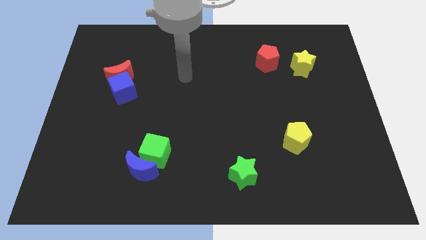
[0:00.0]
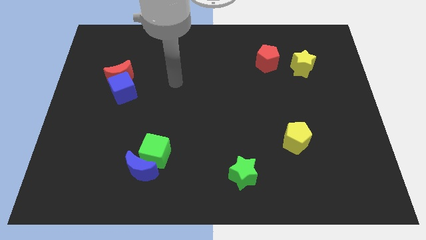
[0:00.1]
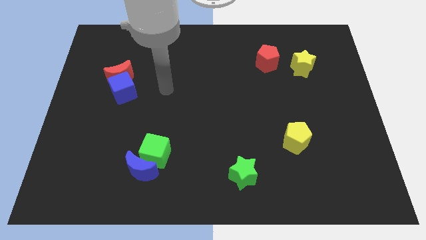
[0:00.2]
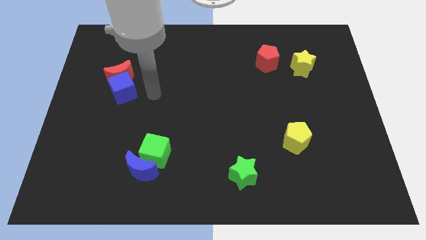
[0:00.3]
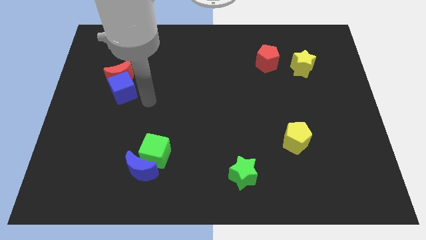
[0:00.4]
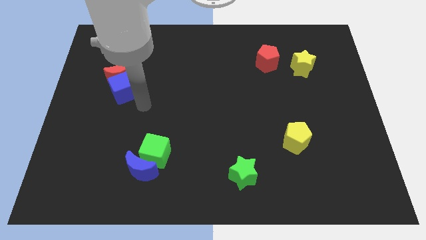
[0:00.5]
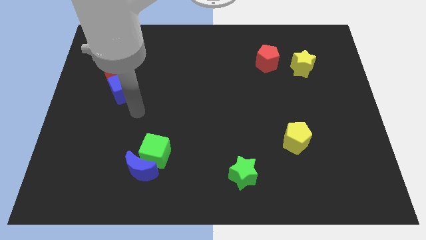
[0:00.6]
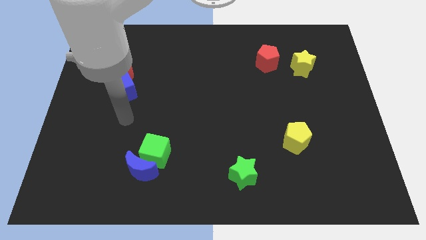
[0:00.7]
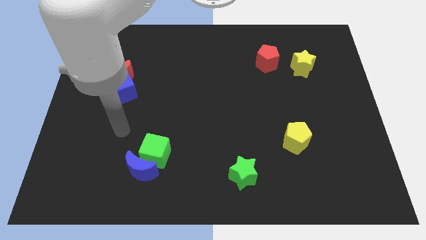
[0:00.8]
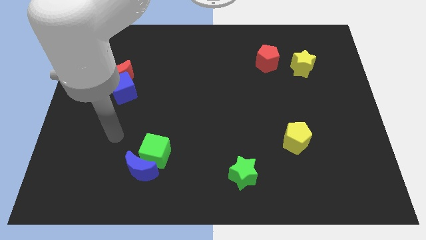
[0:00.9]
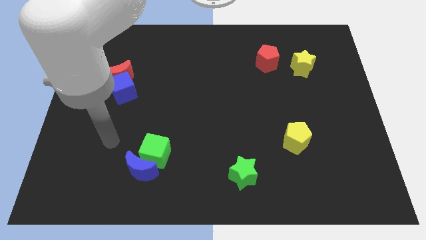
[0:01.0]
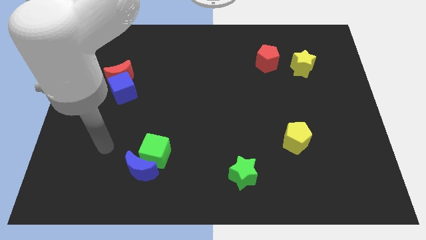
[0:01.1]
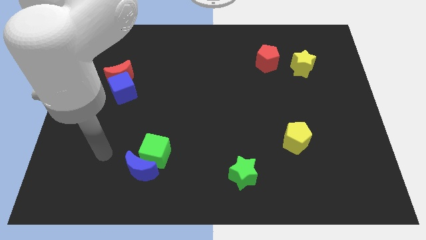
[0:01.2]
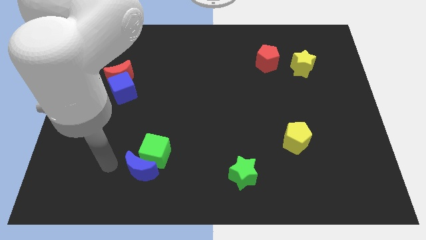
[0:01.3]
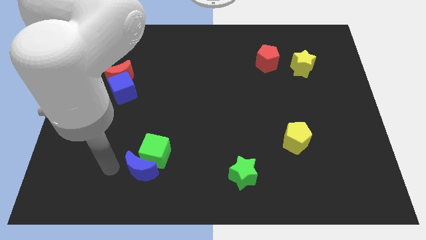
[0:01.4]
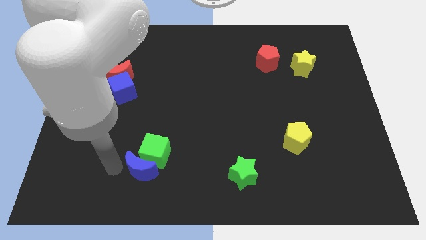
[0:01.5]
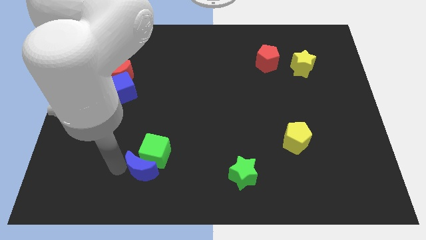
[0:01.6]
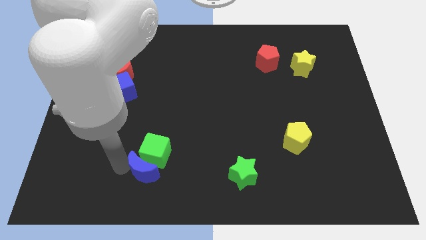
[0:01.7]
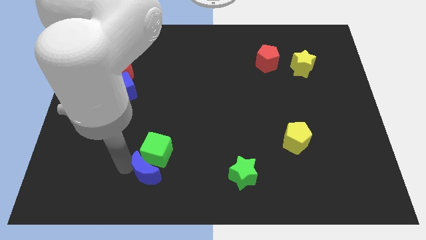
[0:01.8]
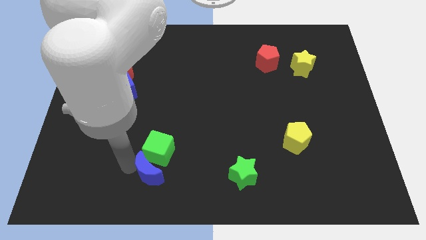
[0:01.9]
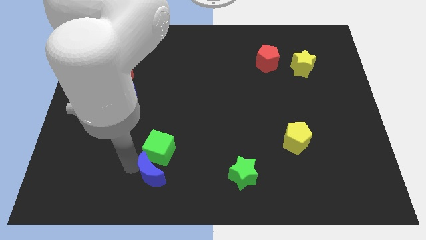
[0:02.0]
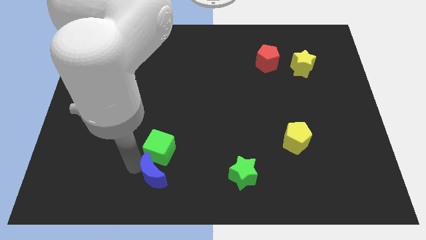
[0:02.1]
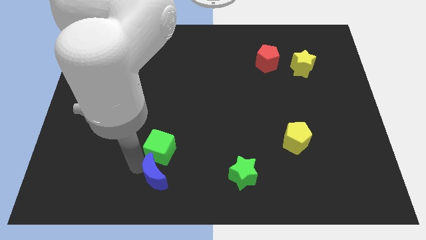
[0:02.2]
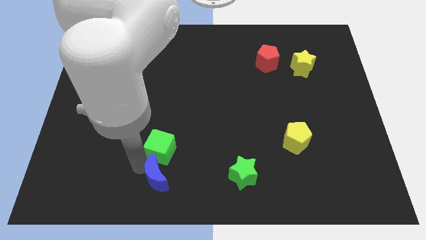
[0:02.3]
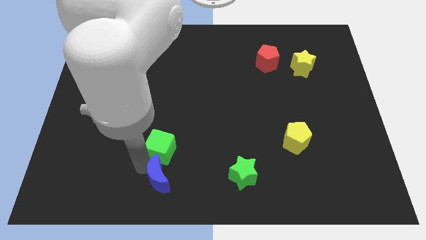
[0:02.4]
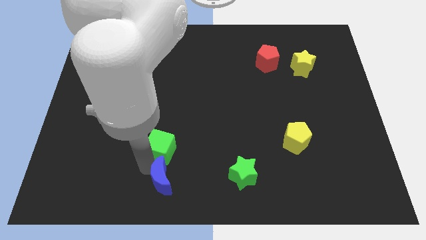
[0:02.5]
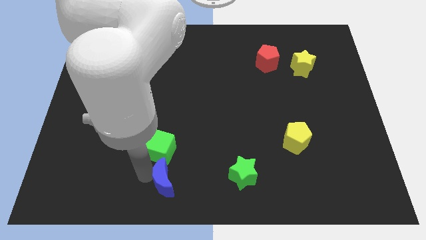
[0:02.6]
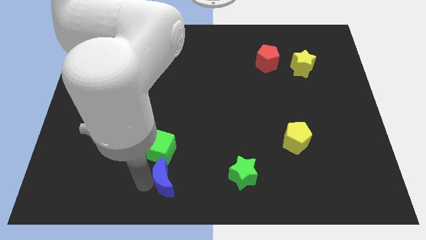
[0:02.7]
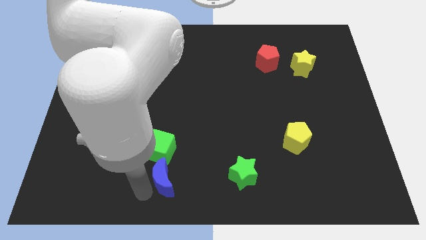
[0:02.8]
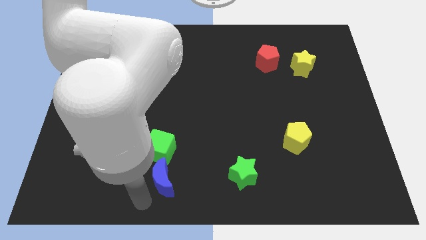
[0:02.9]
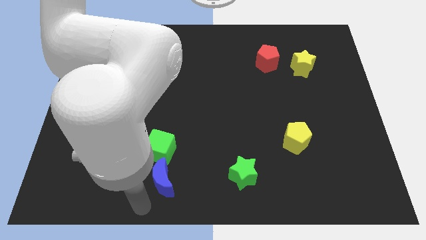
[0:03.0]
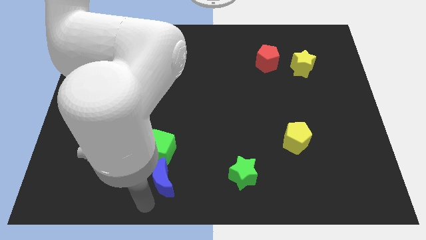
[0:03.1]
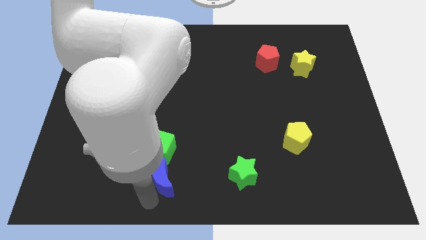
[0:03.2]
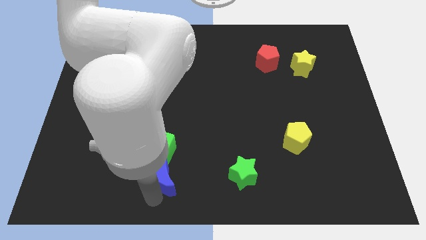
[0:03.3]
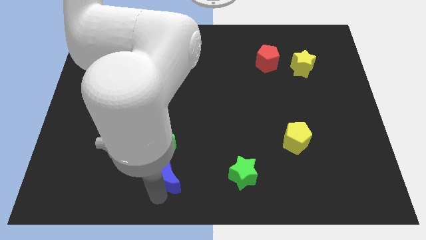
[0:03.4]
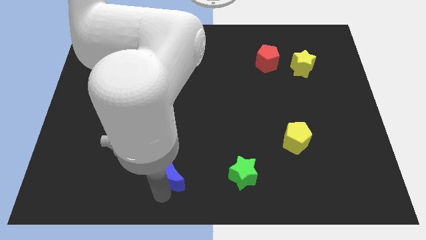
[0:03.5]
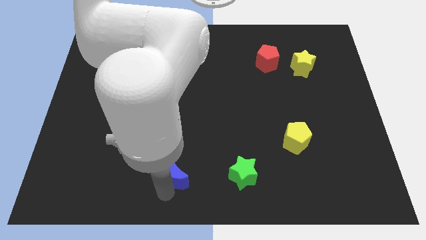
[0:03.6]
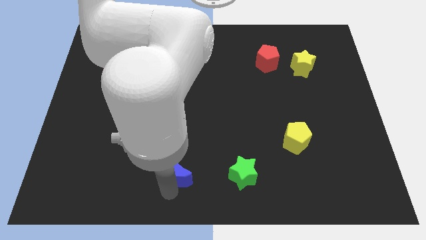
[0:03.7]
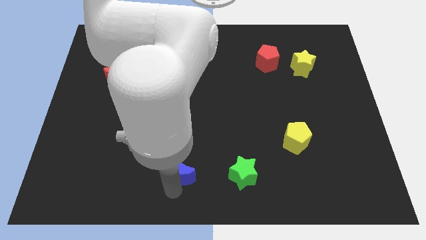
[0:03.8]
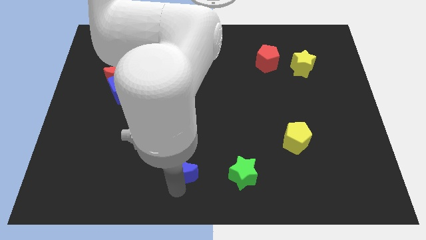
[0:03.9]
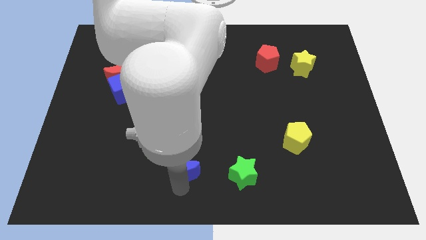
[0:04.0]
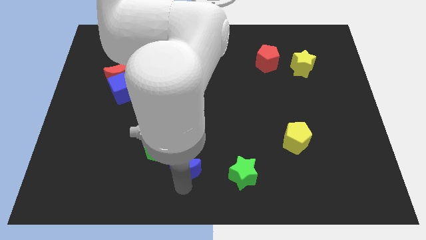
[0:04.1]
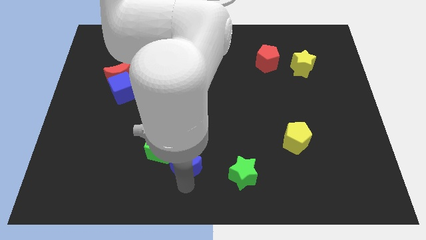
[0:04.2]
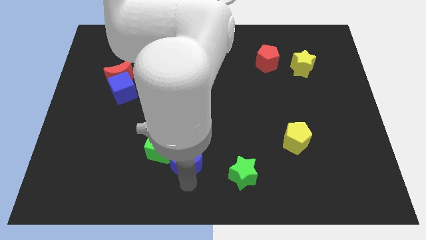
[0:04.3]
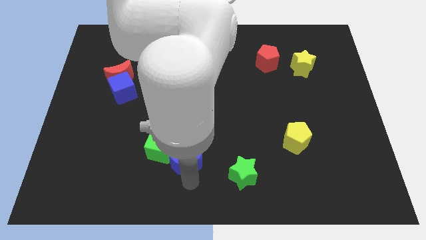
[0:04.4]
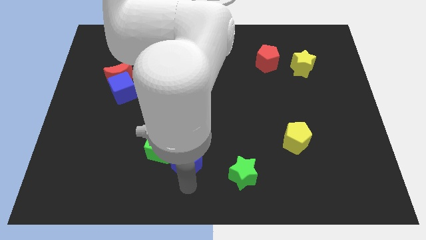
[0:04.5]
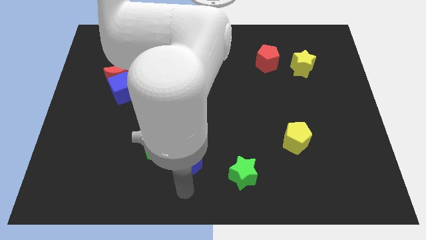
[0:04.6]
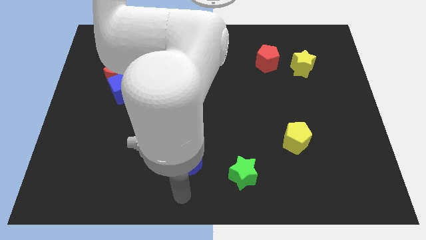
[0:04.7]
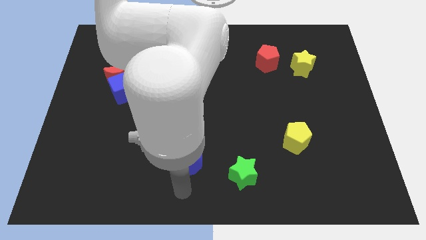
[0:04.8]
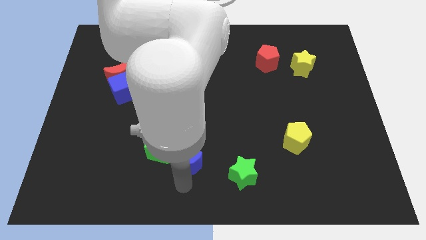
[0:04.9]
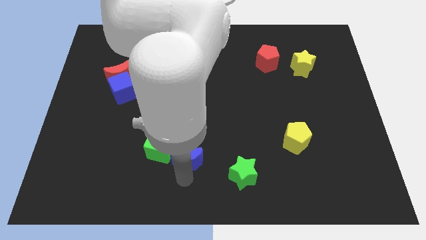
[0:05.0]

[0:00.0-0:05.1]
slide the blue moon up and right a bit

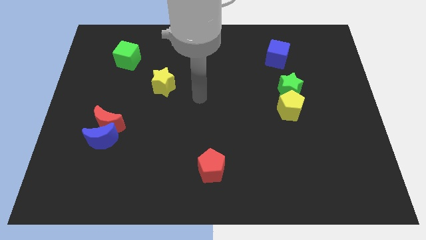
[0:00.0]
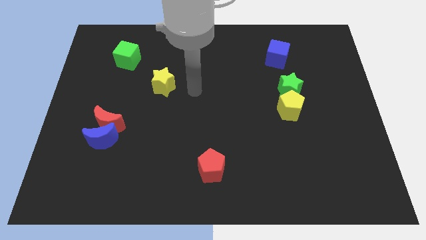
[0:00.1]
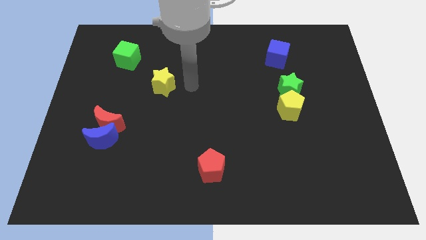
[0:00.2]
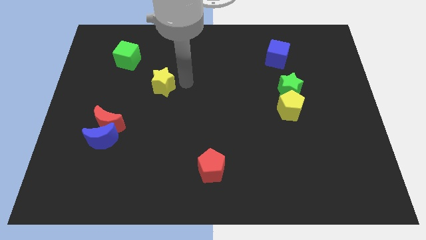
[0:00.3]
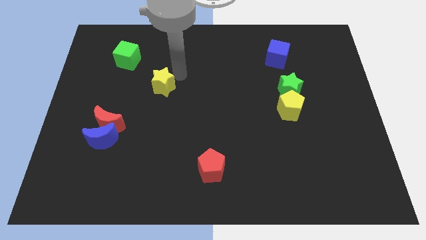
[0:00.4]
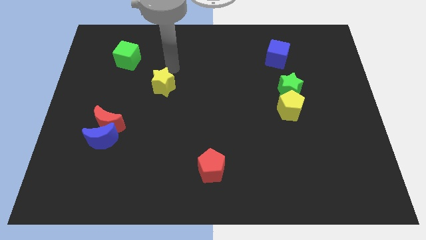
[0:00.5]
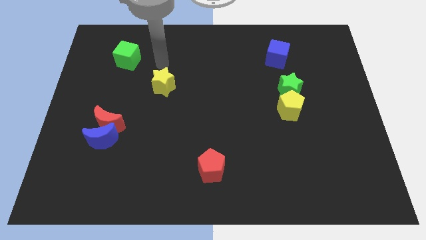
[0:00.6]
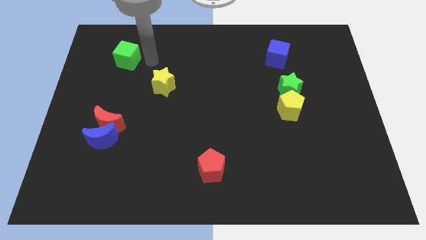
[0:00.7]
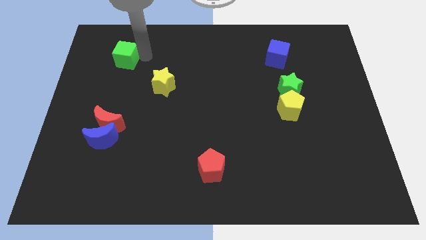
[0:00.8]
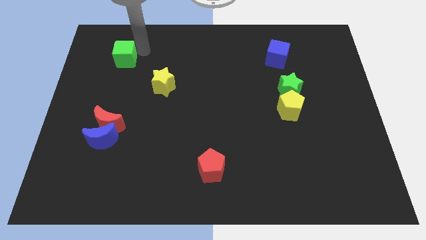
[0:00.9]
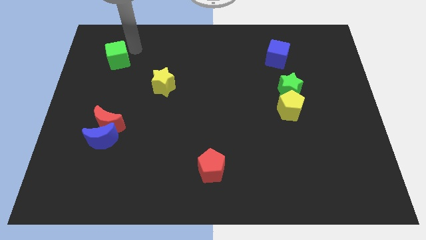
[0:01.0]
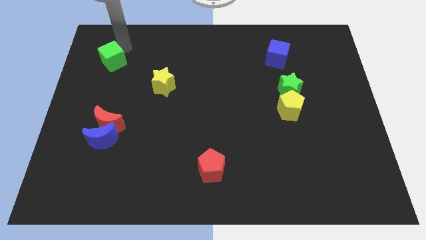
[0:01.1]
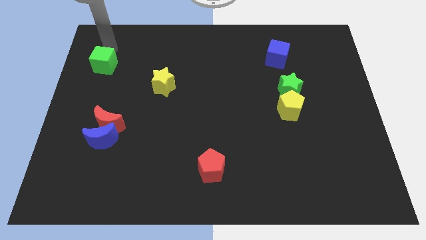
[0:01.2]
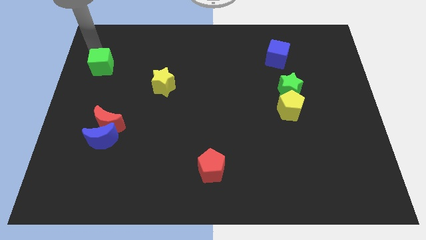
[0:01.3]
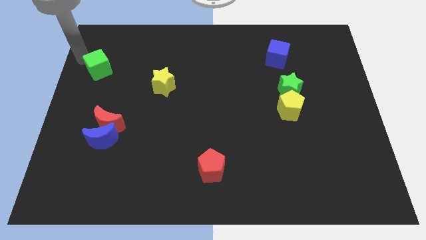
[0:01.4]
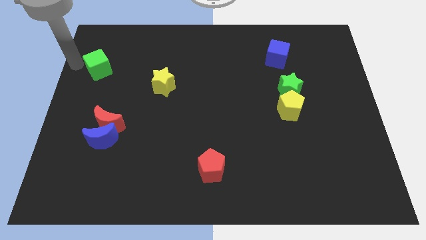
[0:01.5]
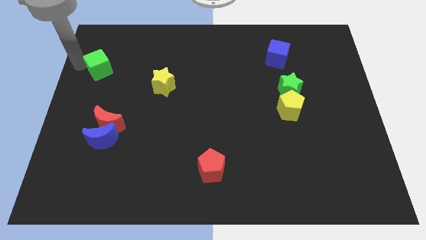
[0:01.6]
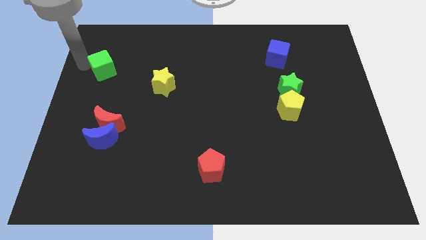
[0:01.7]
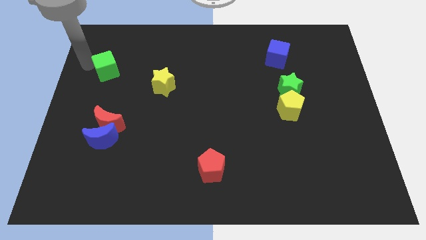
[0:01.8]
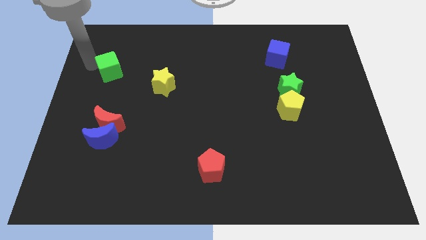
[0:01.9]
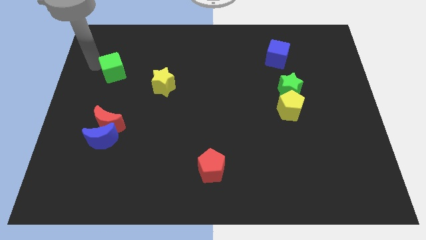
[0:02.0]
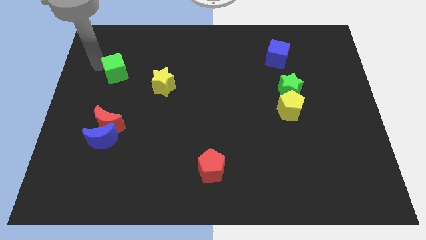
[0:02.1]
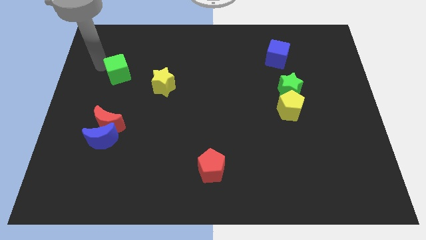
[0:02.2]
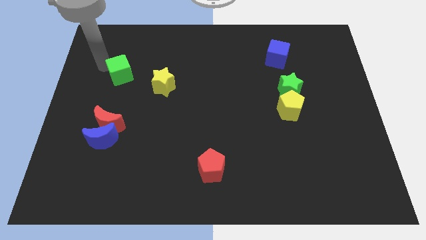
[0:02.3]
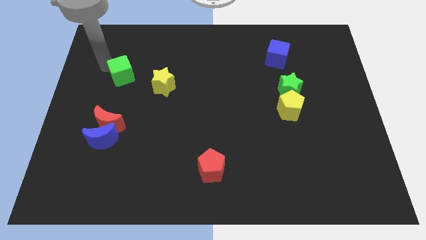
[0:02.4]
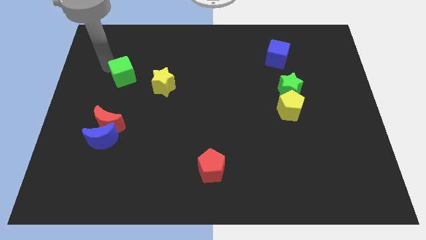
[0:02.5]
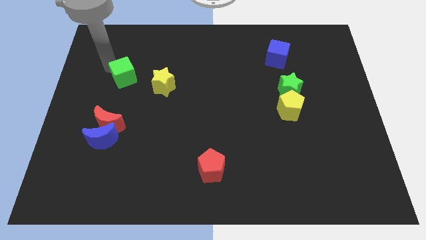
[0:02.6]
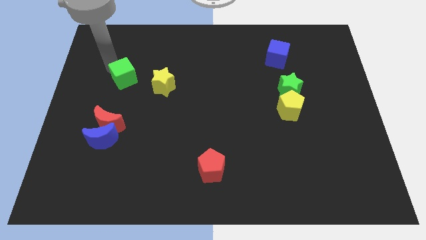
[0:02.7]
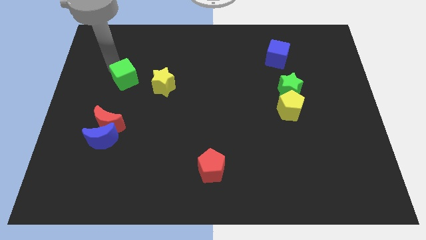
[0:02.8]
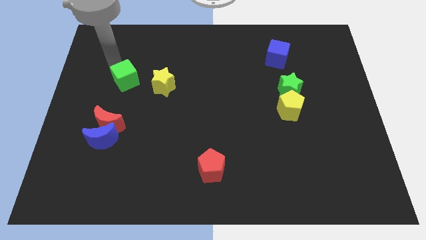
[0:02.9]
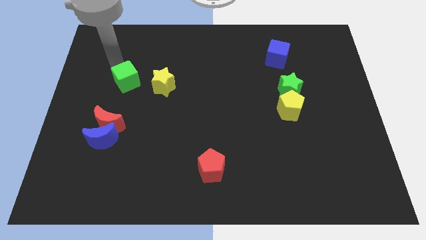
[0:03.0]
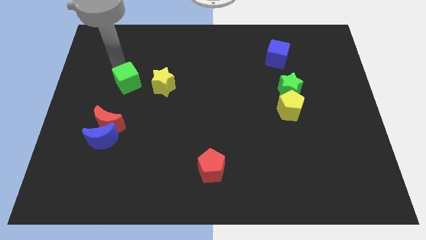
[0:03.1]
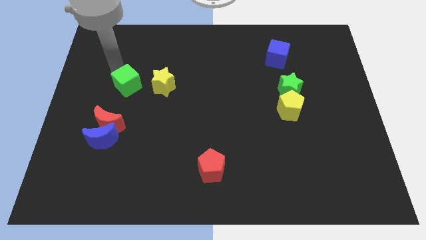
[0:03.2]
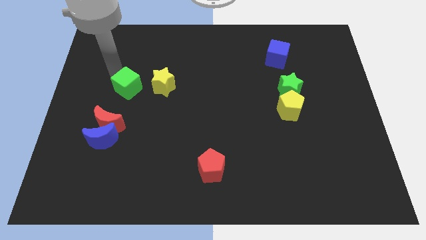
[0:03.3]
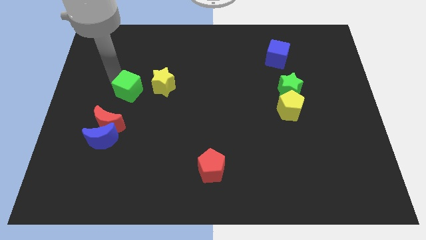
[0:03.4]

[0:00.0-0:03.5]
slide the green cube downwards and then to the right a bit
